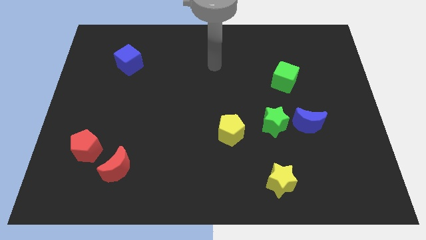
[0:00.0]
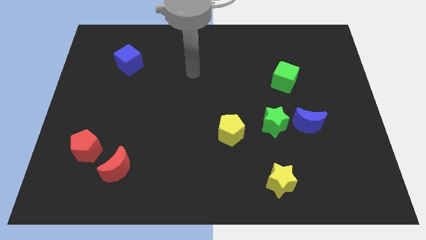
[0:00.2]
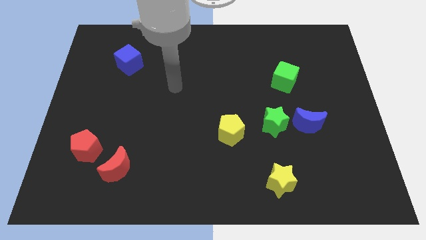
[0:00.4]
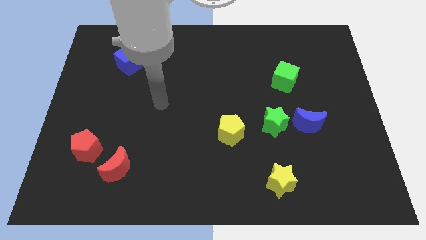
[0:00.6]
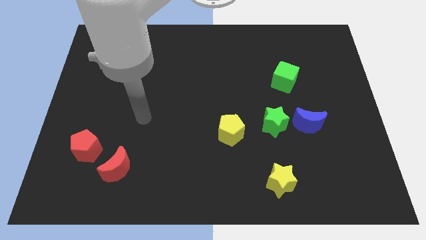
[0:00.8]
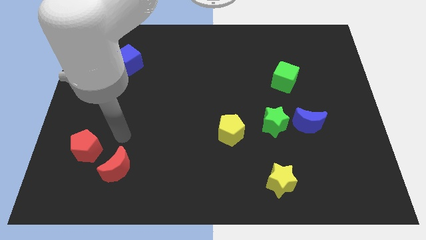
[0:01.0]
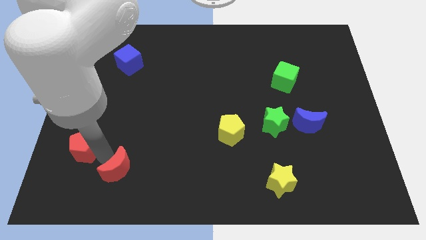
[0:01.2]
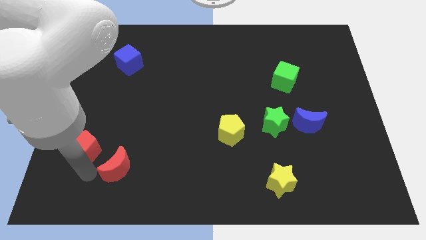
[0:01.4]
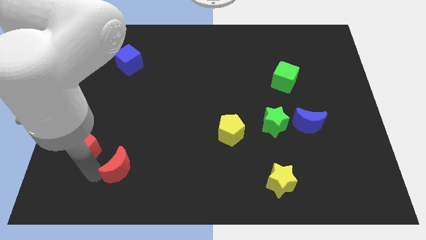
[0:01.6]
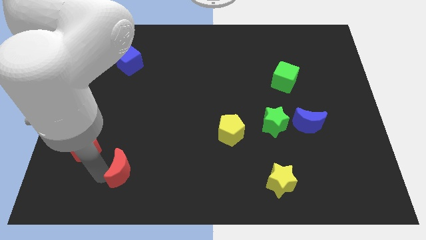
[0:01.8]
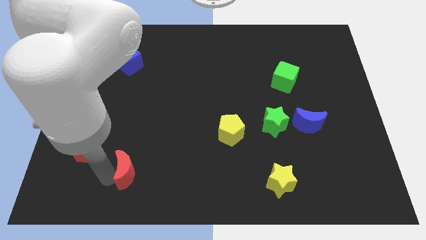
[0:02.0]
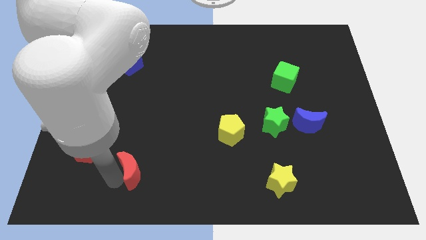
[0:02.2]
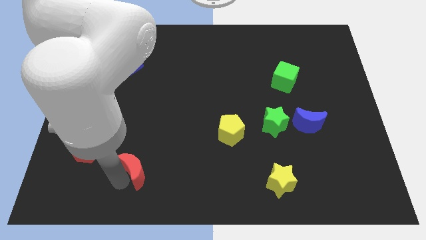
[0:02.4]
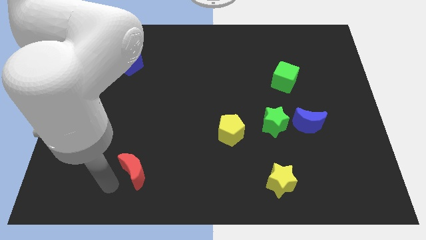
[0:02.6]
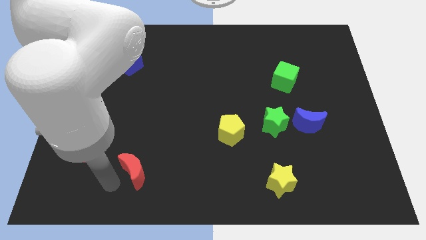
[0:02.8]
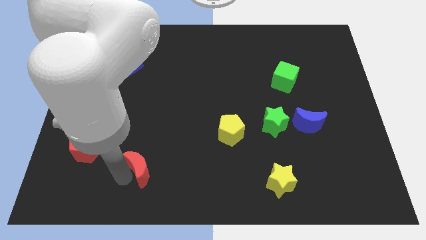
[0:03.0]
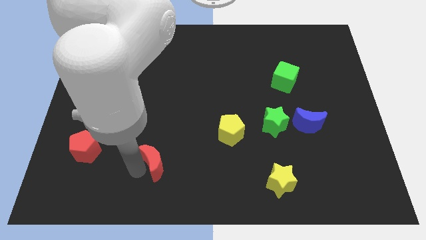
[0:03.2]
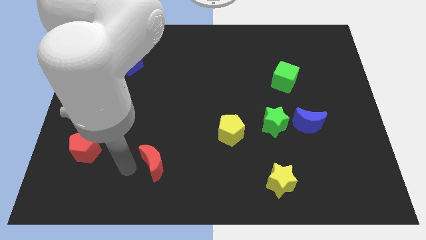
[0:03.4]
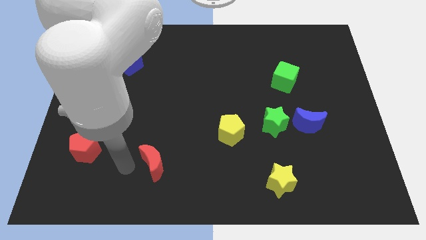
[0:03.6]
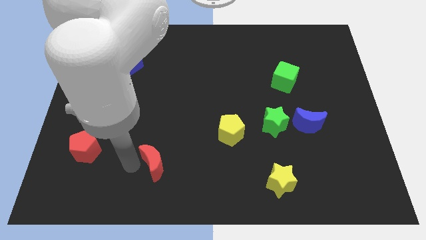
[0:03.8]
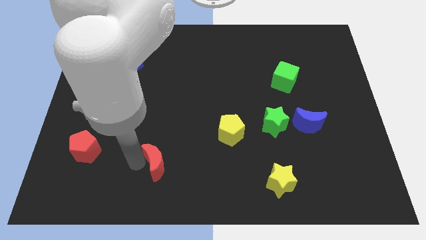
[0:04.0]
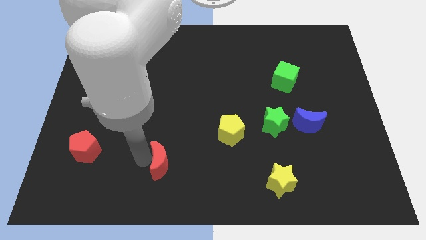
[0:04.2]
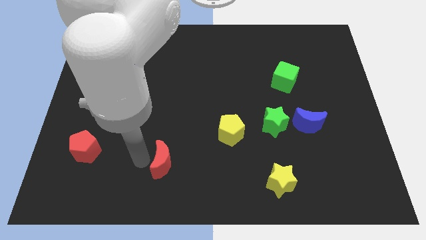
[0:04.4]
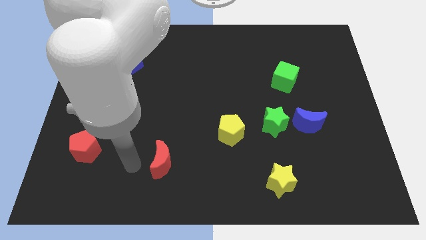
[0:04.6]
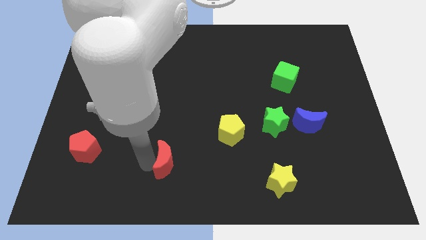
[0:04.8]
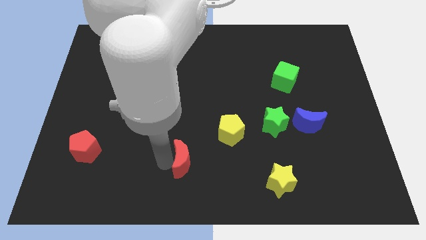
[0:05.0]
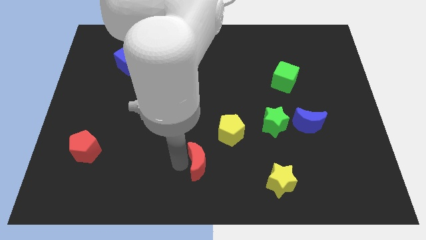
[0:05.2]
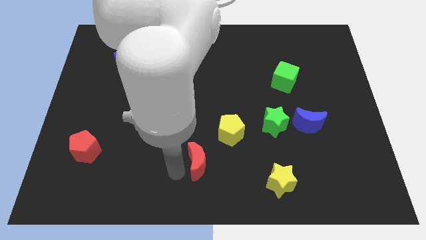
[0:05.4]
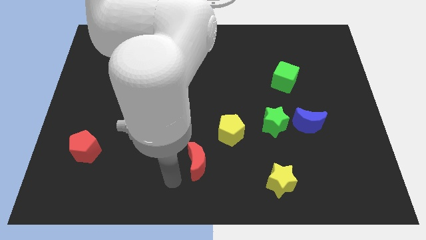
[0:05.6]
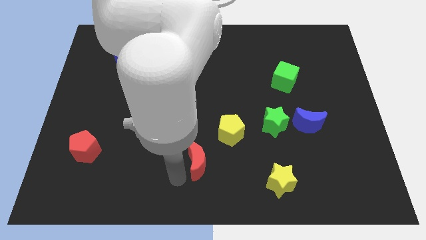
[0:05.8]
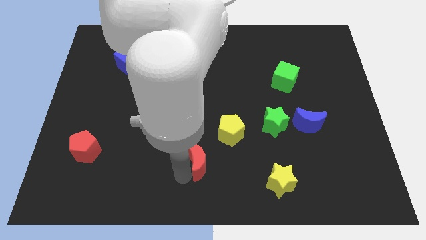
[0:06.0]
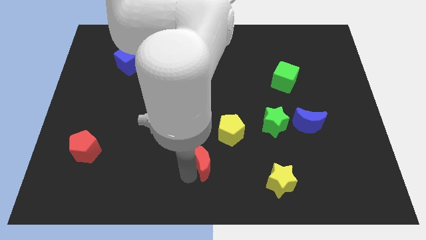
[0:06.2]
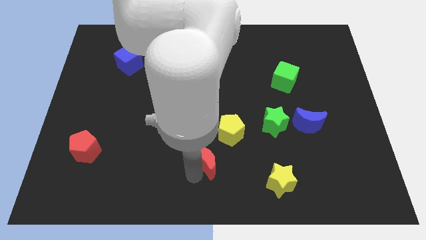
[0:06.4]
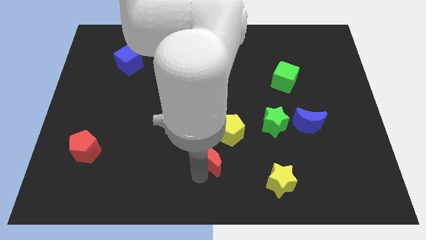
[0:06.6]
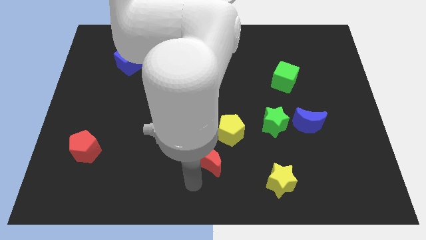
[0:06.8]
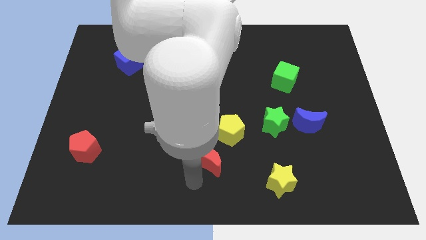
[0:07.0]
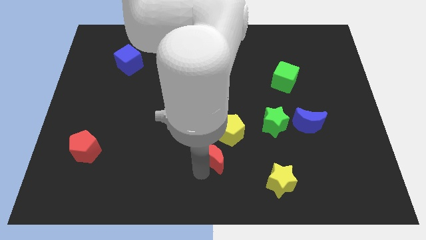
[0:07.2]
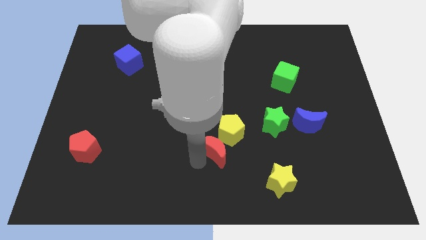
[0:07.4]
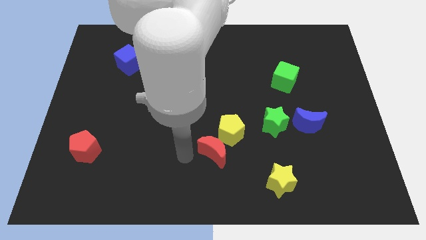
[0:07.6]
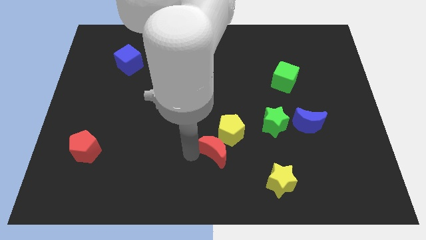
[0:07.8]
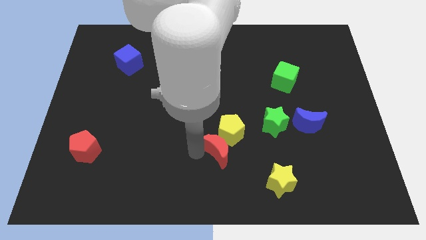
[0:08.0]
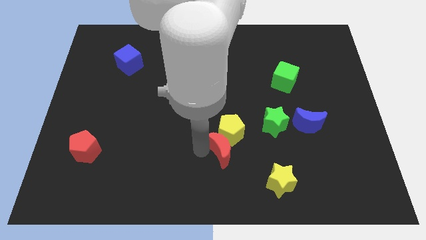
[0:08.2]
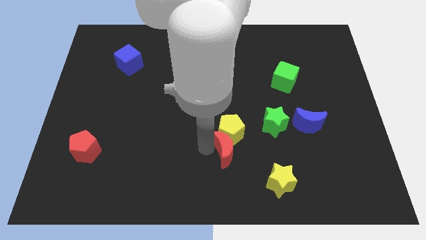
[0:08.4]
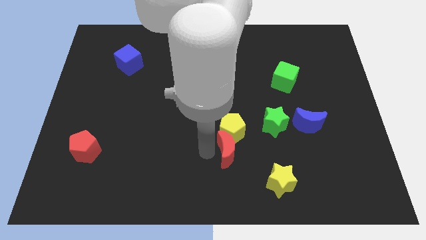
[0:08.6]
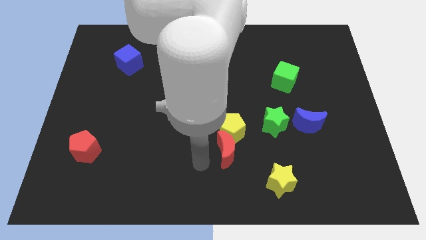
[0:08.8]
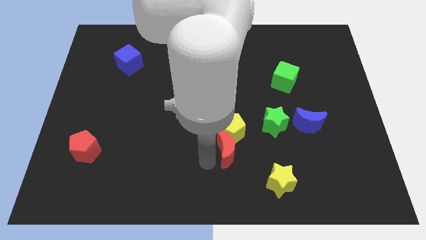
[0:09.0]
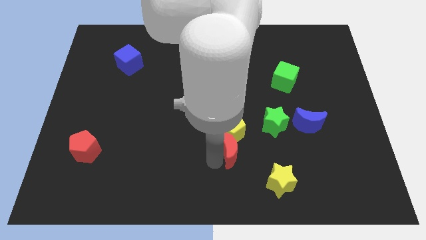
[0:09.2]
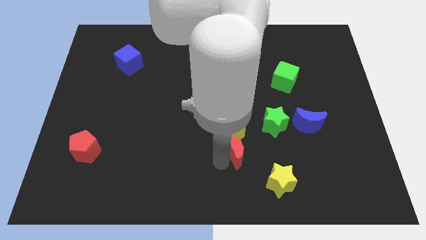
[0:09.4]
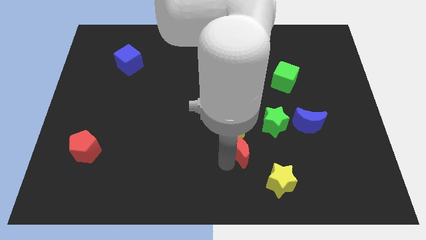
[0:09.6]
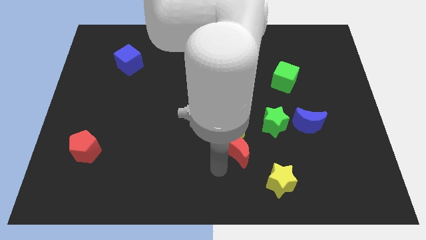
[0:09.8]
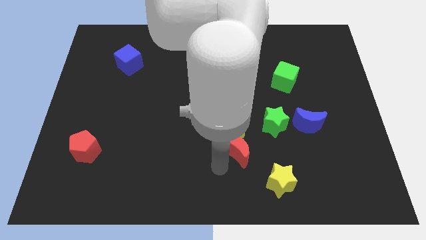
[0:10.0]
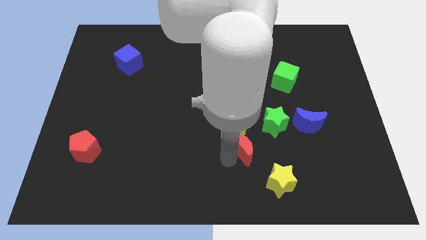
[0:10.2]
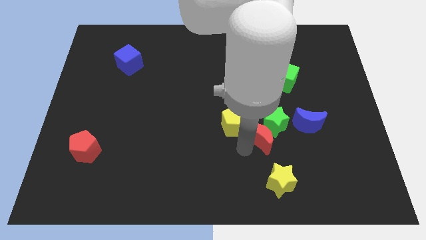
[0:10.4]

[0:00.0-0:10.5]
put the red moon to the green star

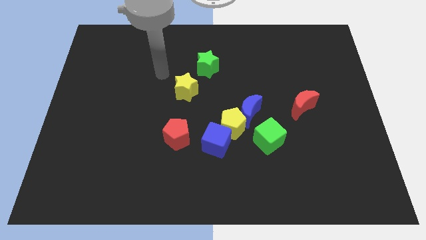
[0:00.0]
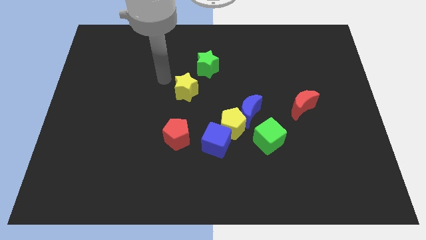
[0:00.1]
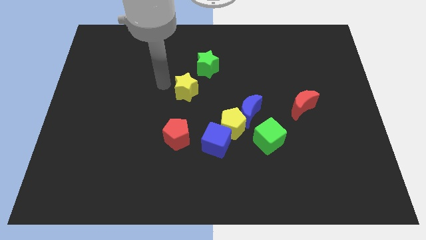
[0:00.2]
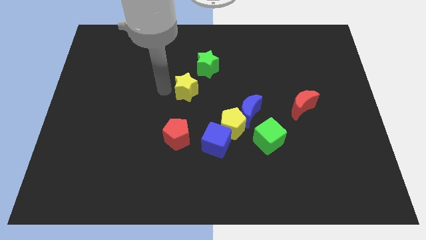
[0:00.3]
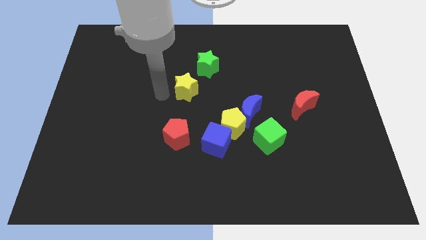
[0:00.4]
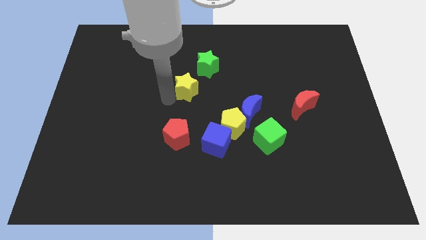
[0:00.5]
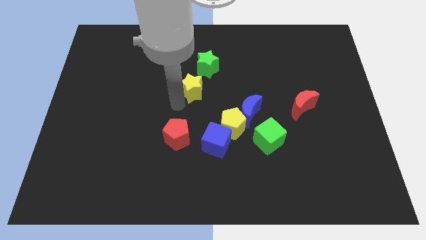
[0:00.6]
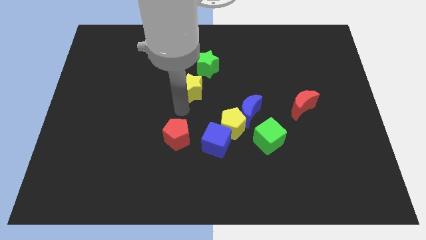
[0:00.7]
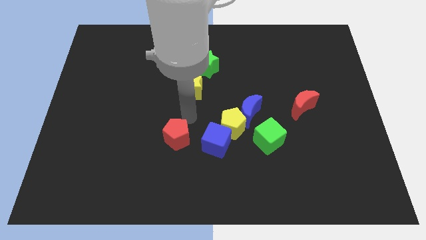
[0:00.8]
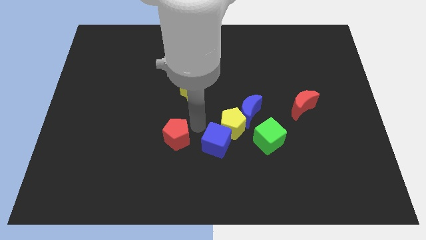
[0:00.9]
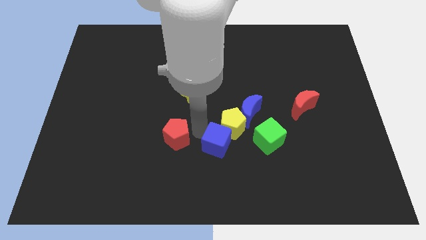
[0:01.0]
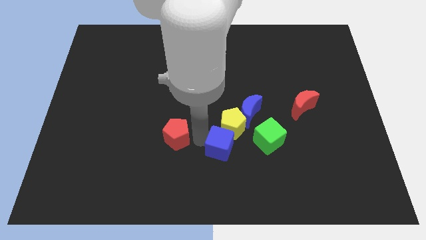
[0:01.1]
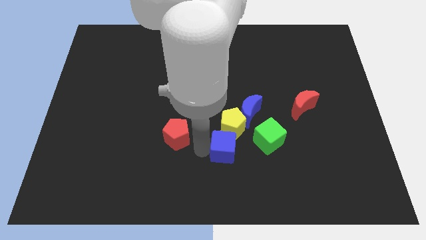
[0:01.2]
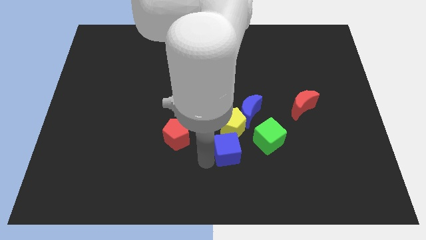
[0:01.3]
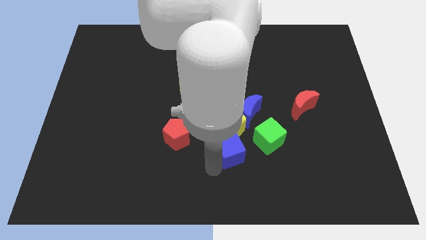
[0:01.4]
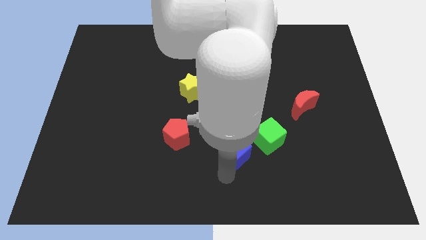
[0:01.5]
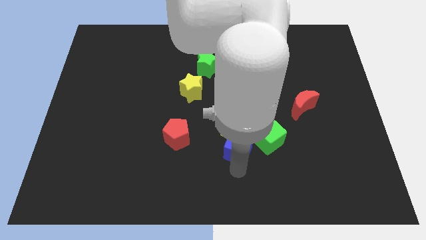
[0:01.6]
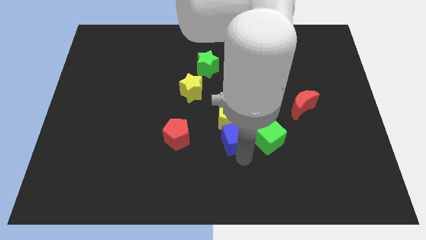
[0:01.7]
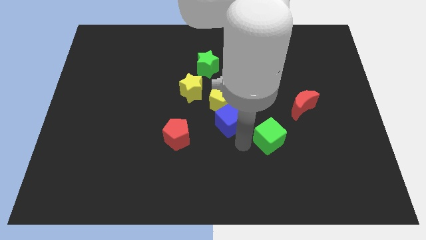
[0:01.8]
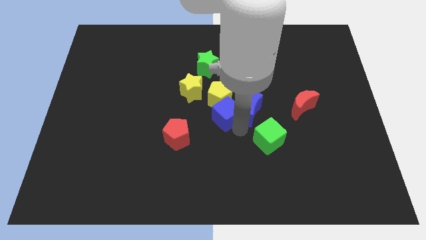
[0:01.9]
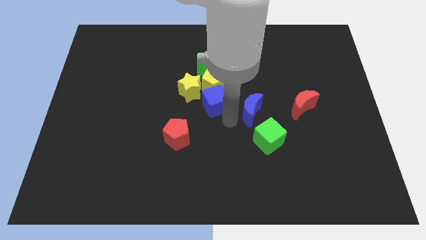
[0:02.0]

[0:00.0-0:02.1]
move the yellow pentagon close to the green star
